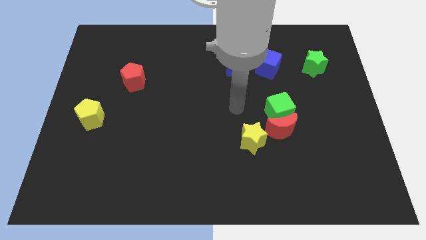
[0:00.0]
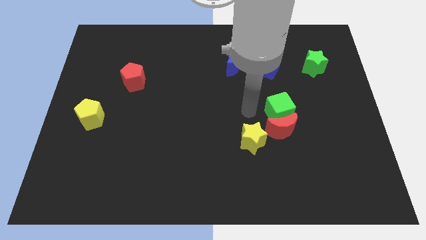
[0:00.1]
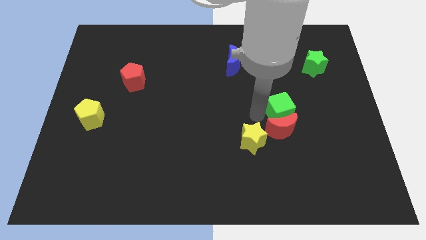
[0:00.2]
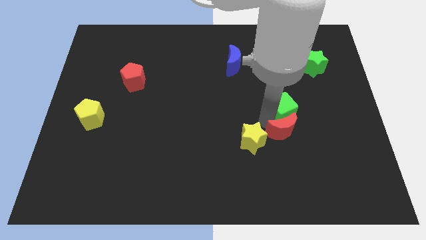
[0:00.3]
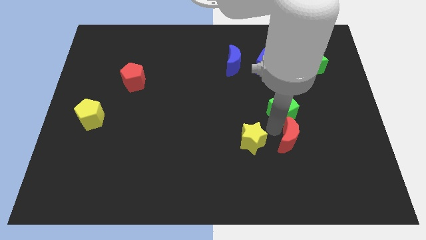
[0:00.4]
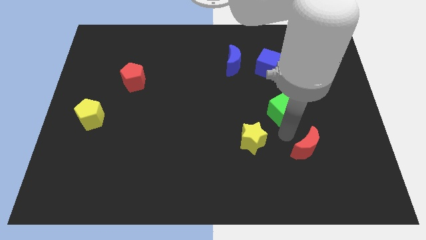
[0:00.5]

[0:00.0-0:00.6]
move the green cube away from the red moon

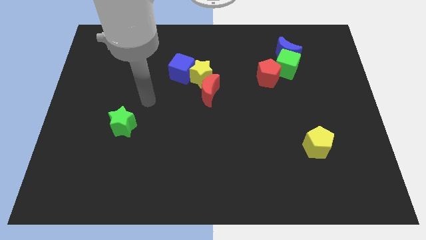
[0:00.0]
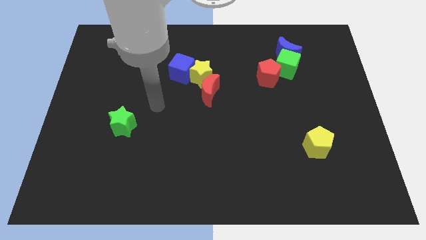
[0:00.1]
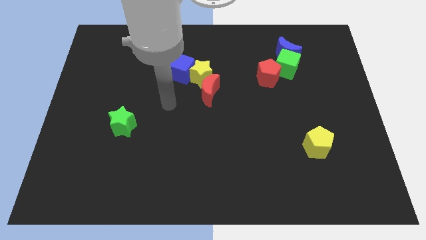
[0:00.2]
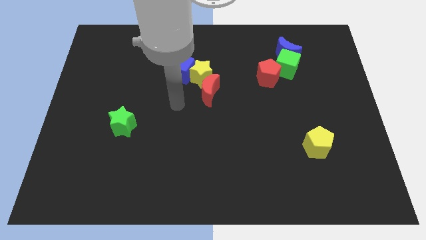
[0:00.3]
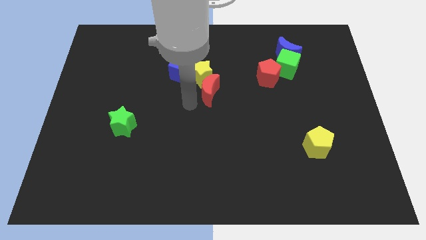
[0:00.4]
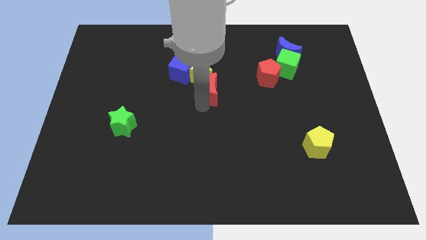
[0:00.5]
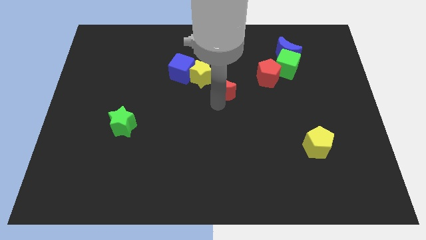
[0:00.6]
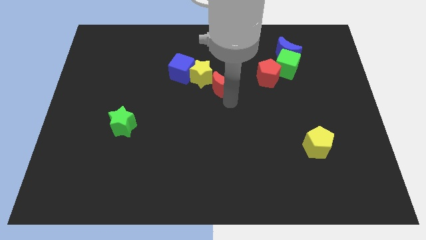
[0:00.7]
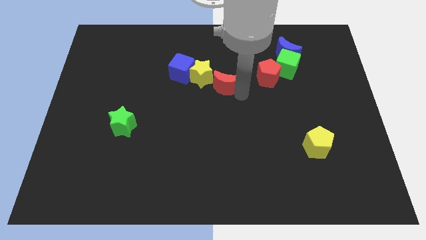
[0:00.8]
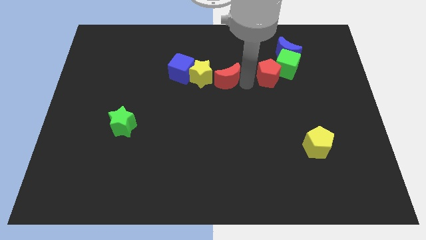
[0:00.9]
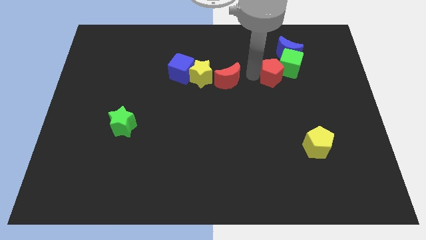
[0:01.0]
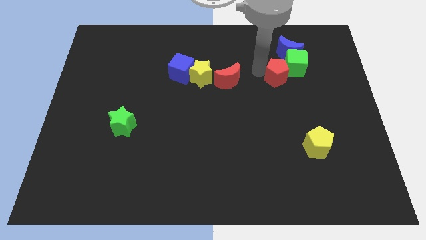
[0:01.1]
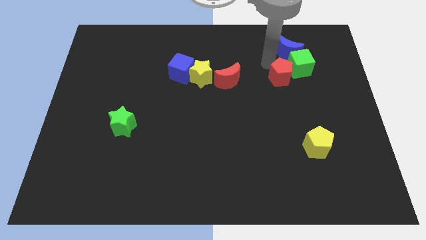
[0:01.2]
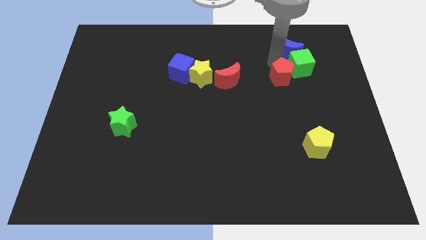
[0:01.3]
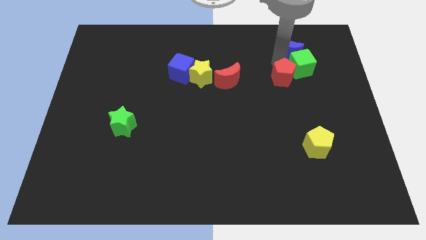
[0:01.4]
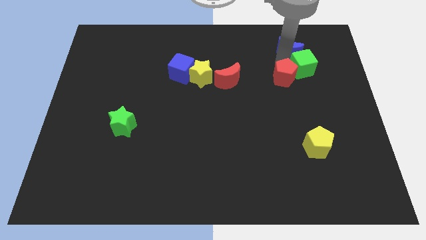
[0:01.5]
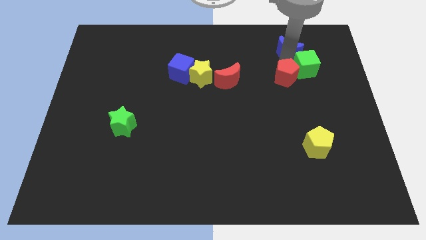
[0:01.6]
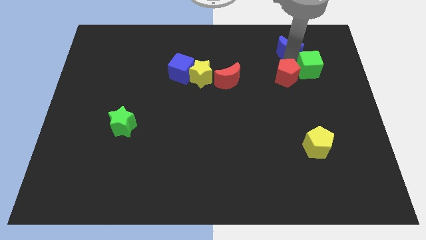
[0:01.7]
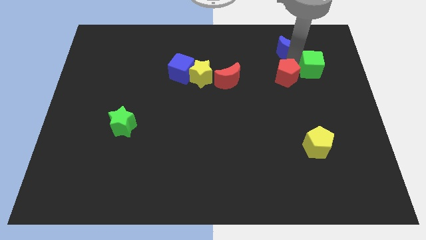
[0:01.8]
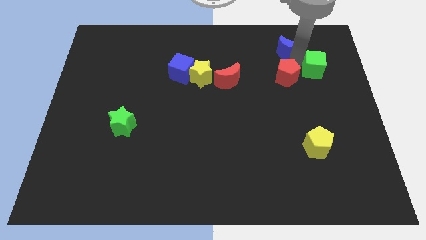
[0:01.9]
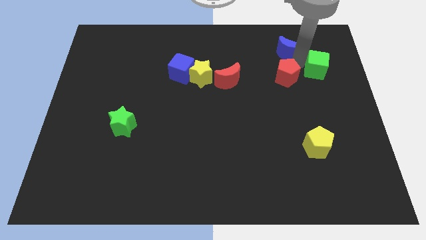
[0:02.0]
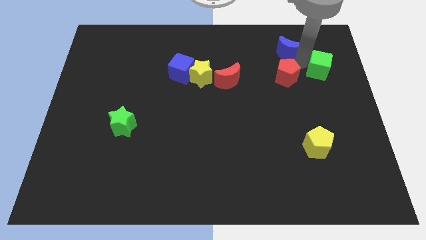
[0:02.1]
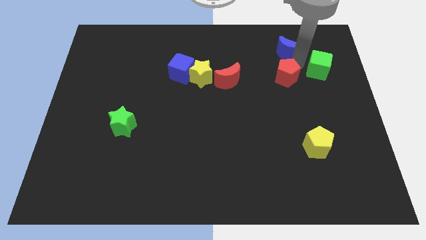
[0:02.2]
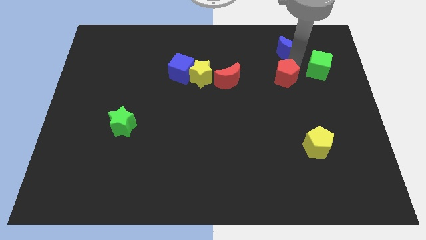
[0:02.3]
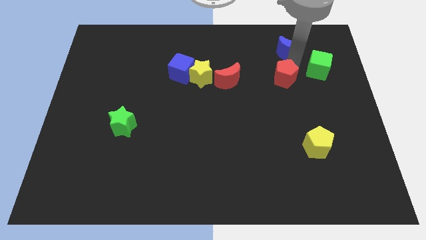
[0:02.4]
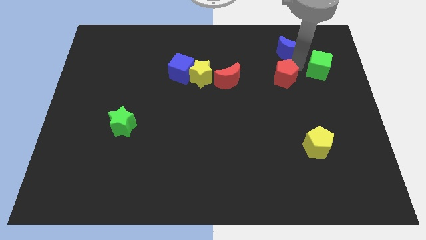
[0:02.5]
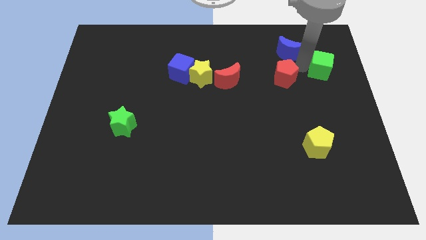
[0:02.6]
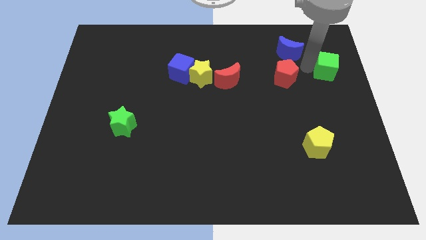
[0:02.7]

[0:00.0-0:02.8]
pull the green cube apart from the blue moon and red pentagon

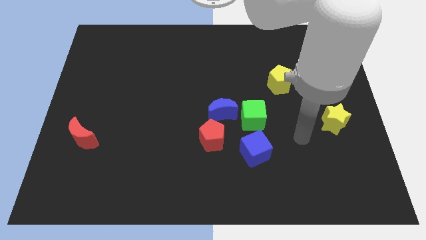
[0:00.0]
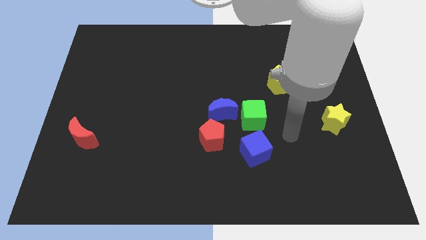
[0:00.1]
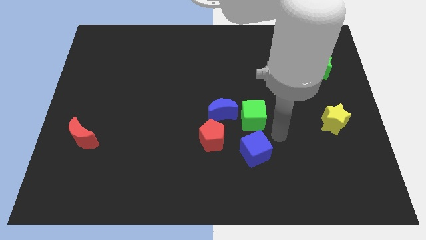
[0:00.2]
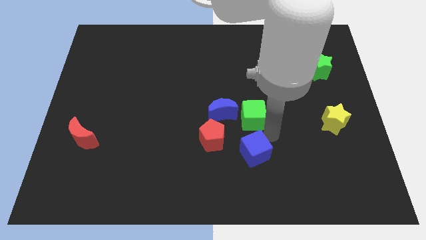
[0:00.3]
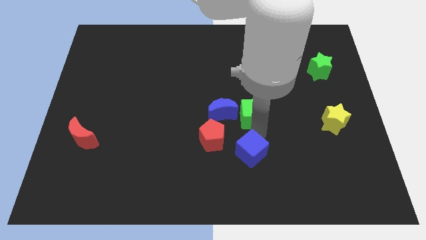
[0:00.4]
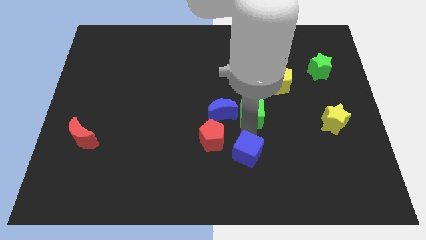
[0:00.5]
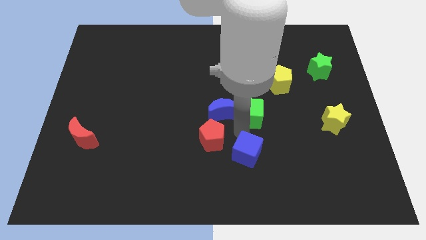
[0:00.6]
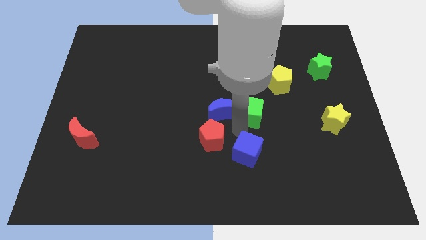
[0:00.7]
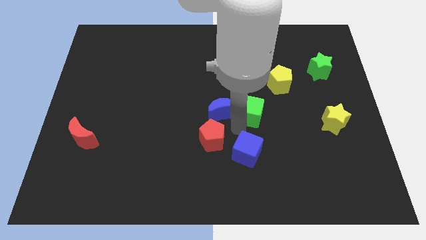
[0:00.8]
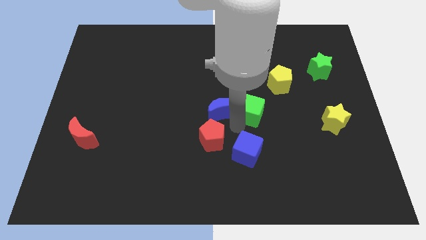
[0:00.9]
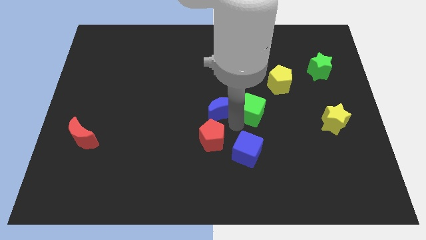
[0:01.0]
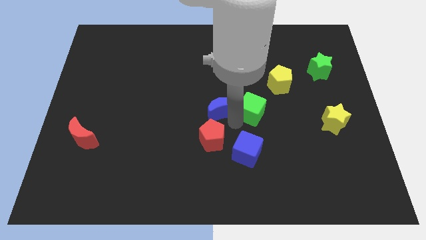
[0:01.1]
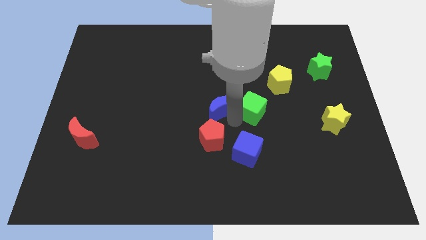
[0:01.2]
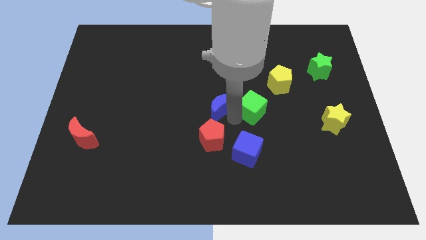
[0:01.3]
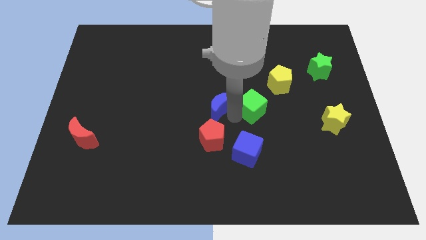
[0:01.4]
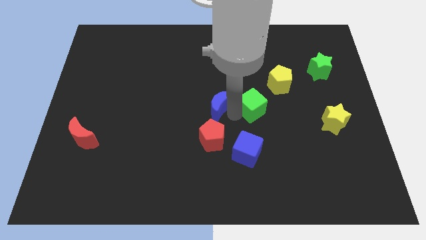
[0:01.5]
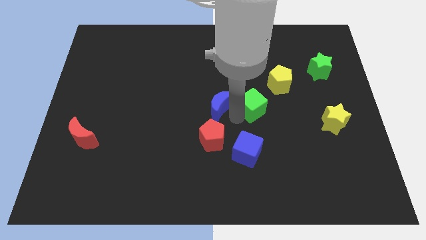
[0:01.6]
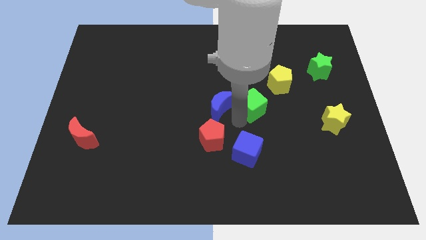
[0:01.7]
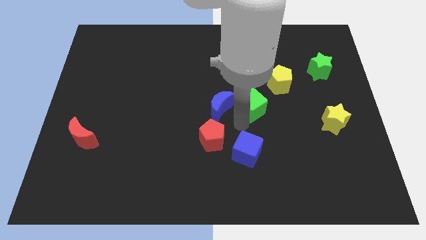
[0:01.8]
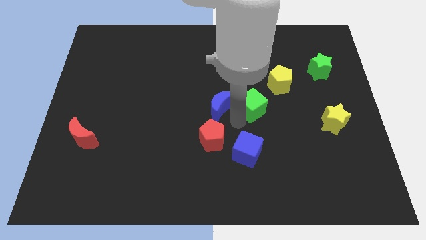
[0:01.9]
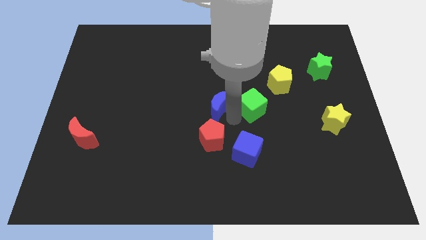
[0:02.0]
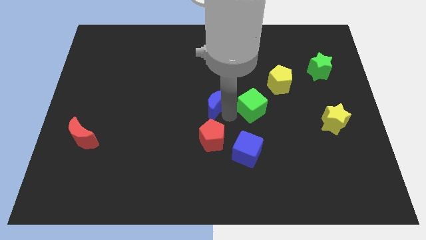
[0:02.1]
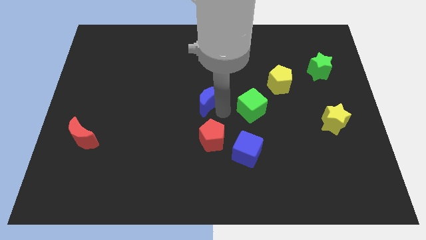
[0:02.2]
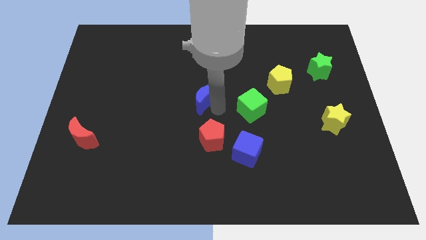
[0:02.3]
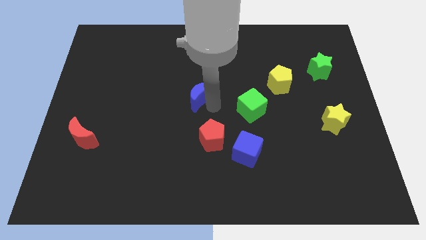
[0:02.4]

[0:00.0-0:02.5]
pull the blue moon apart from the green cube and red pentagon

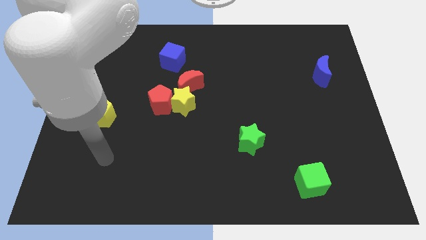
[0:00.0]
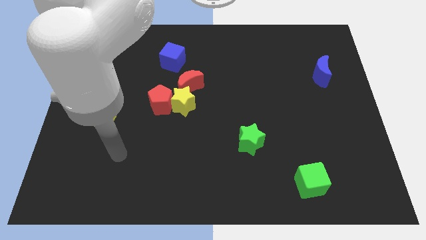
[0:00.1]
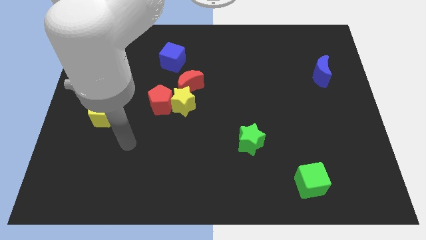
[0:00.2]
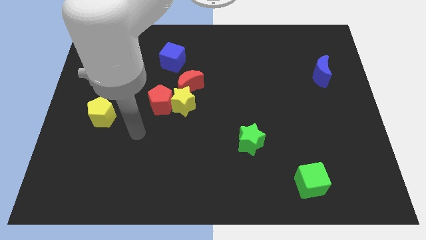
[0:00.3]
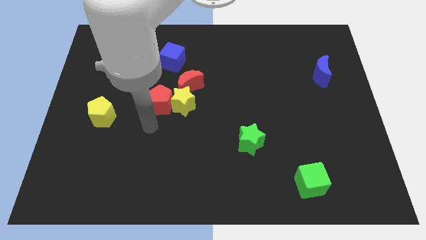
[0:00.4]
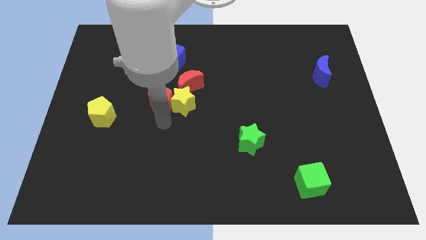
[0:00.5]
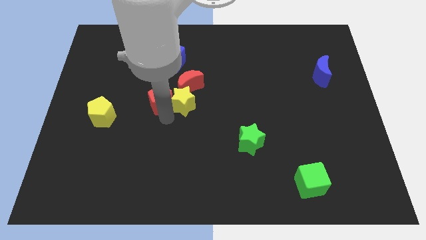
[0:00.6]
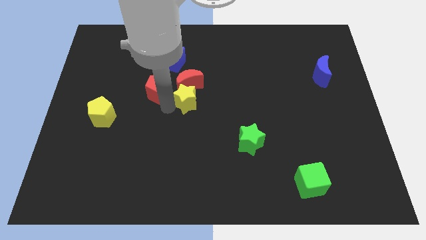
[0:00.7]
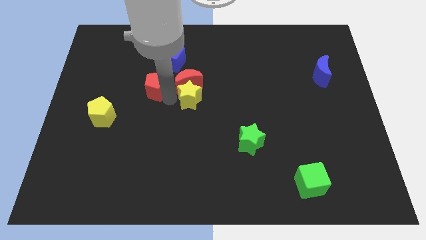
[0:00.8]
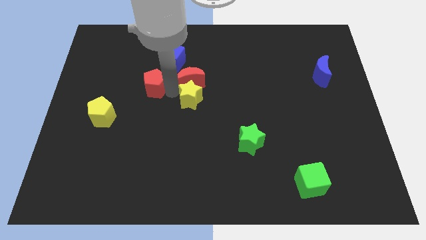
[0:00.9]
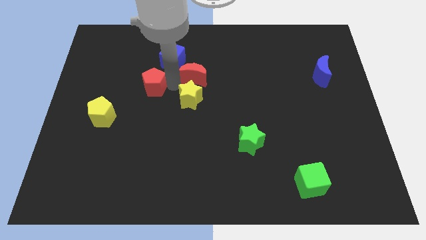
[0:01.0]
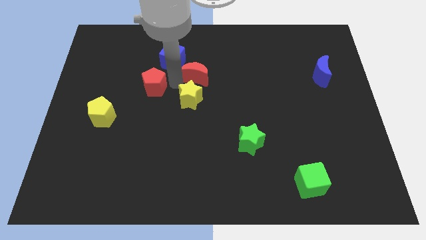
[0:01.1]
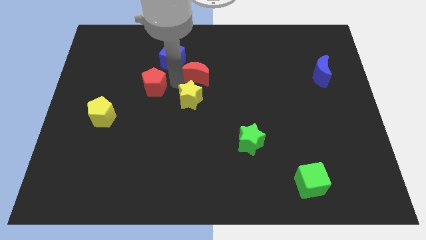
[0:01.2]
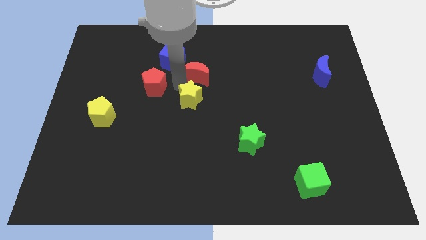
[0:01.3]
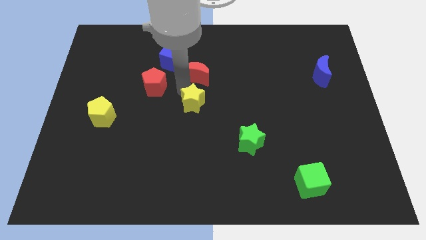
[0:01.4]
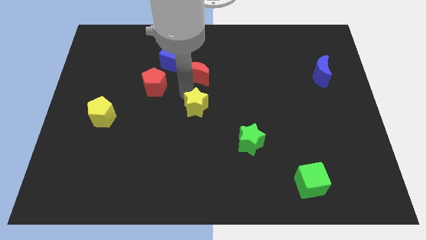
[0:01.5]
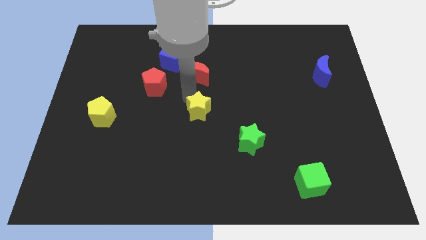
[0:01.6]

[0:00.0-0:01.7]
move the yellow star away from the red pentagon and red moon

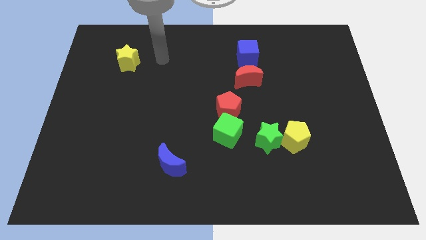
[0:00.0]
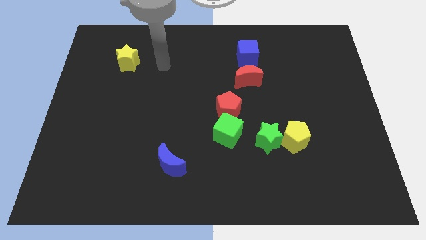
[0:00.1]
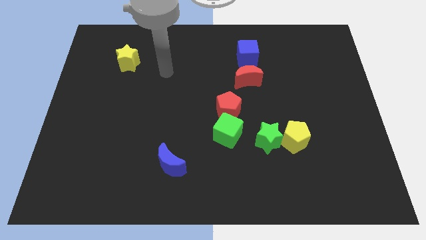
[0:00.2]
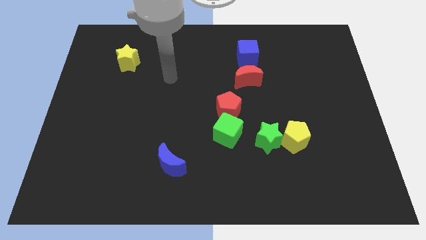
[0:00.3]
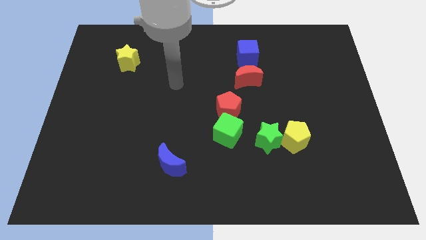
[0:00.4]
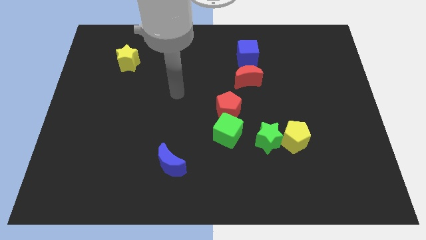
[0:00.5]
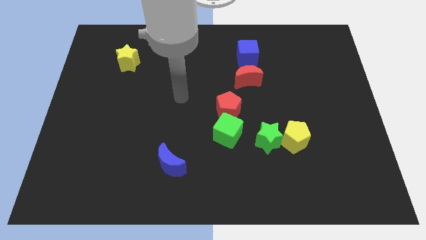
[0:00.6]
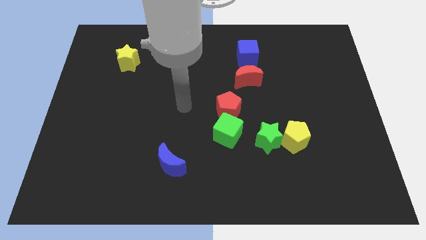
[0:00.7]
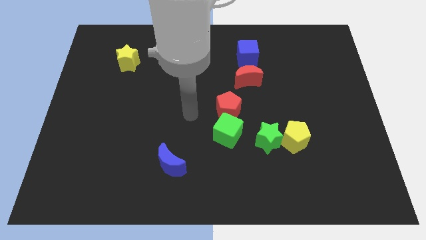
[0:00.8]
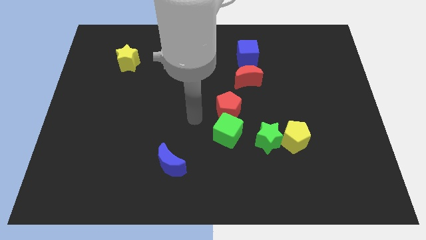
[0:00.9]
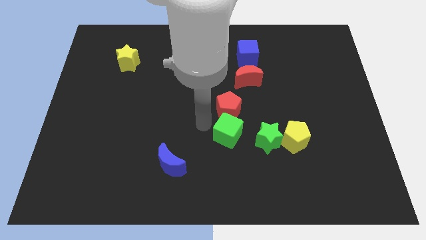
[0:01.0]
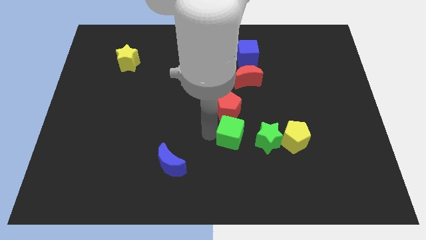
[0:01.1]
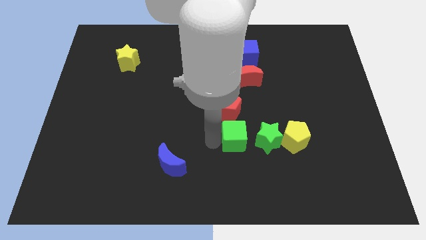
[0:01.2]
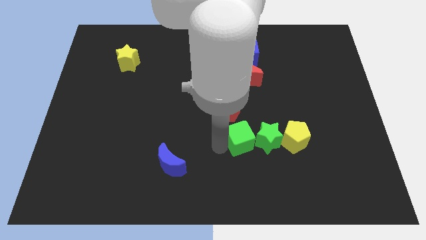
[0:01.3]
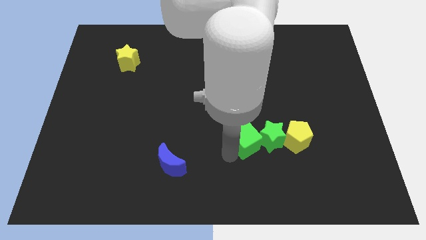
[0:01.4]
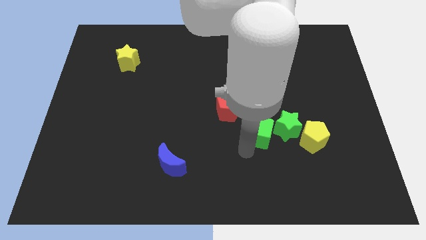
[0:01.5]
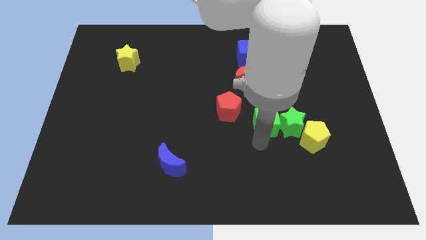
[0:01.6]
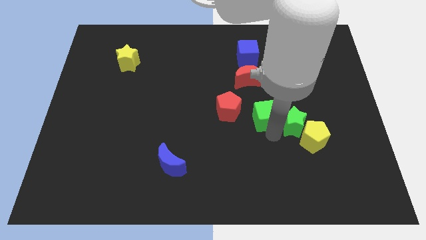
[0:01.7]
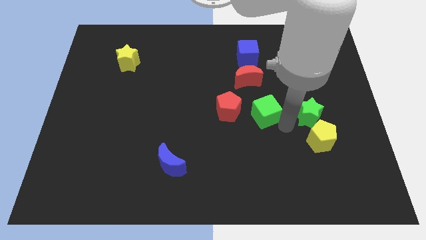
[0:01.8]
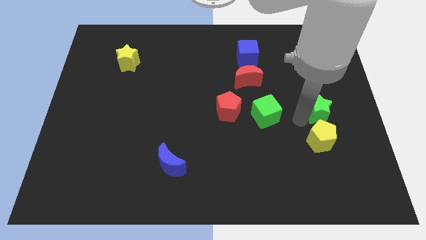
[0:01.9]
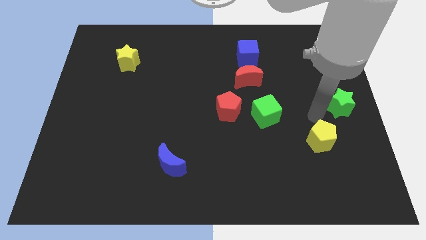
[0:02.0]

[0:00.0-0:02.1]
separate the yellow pentagon from the green star
